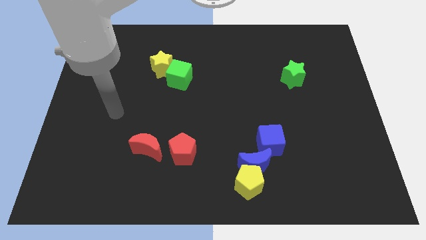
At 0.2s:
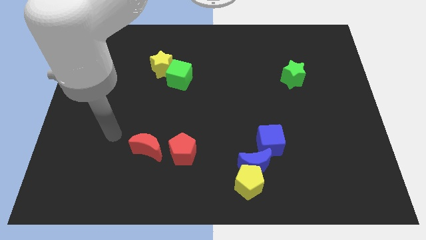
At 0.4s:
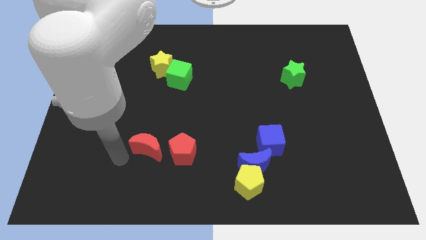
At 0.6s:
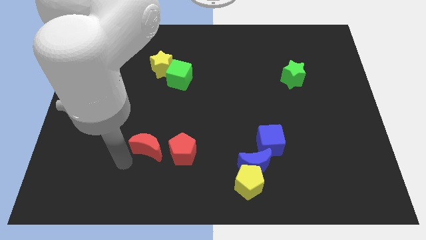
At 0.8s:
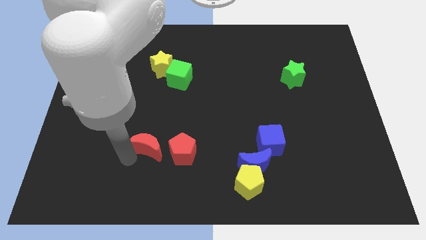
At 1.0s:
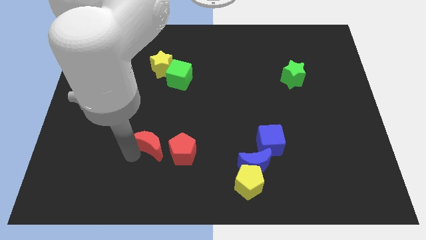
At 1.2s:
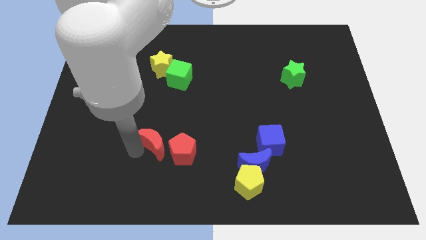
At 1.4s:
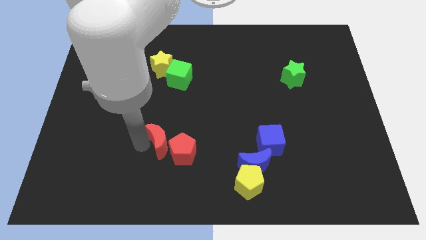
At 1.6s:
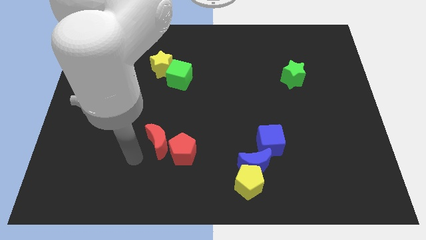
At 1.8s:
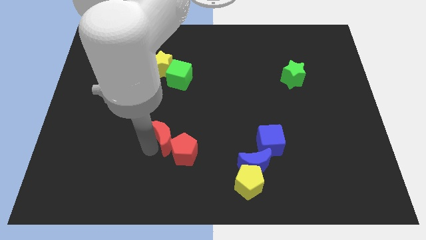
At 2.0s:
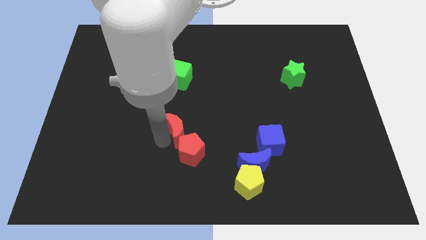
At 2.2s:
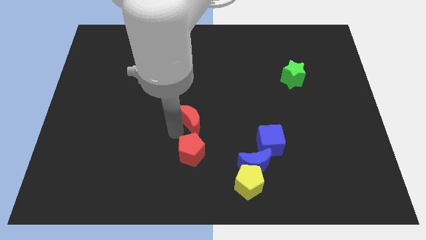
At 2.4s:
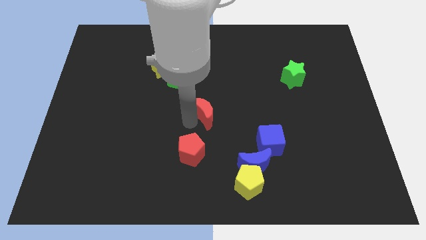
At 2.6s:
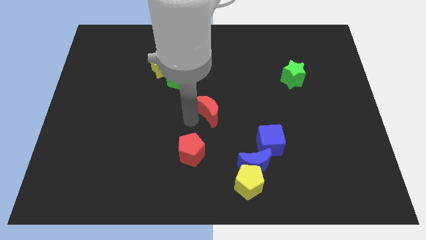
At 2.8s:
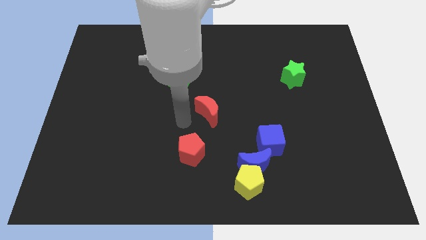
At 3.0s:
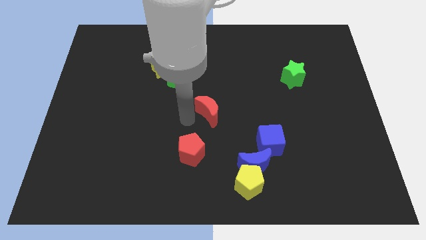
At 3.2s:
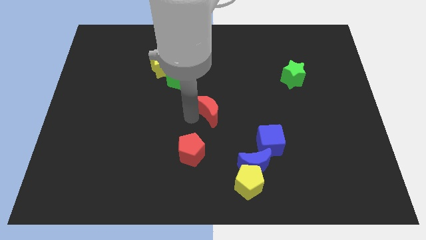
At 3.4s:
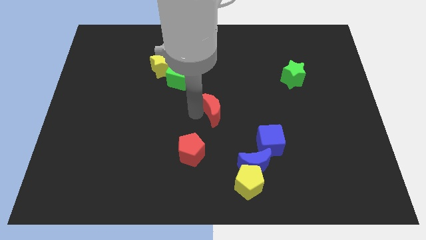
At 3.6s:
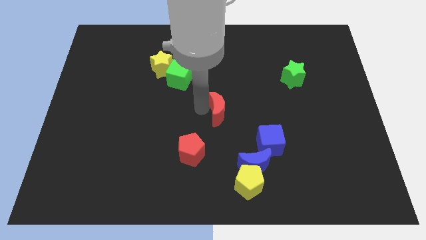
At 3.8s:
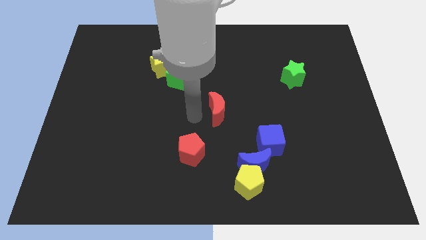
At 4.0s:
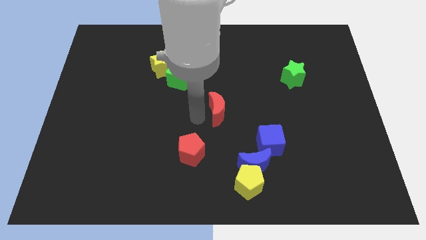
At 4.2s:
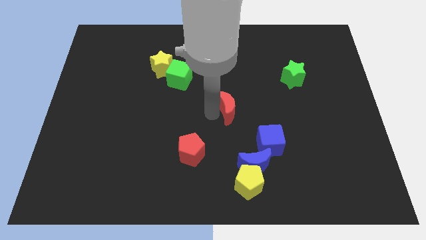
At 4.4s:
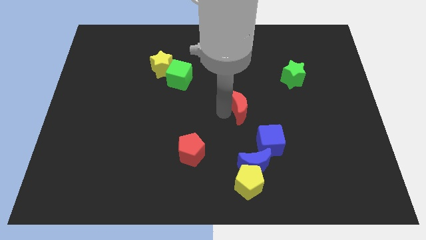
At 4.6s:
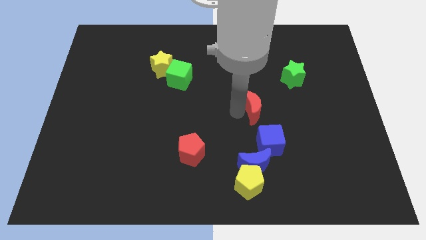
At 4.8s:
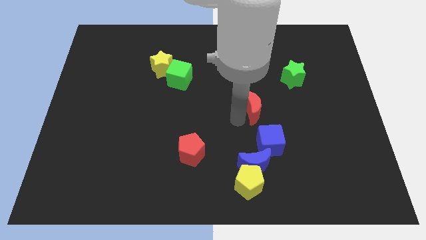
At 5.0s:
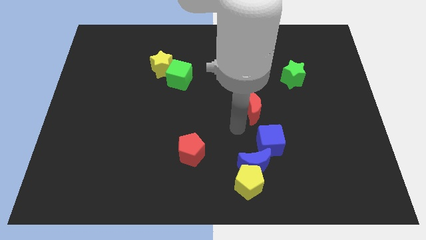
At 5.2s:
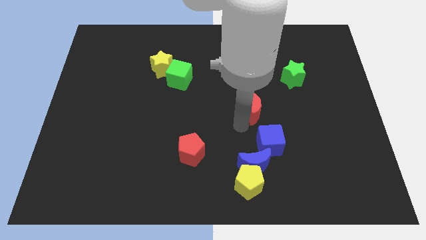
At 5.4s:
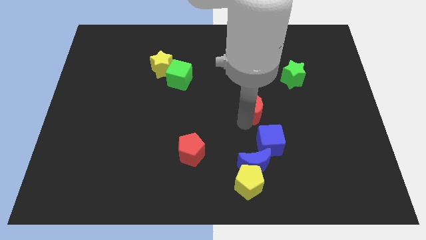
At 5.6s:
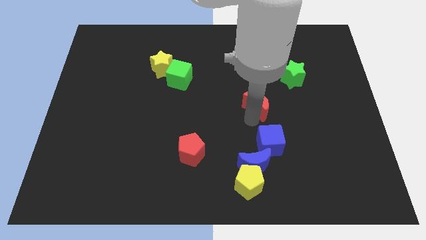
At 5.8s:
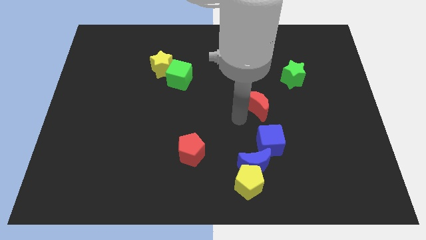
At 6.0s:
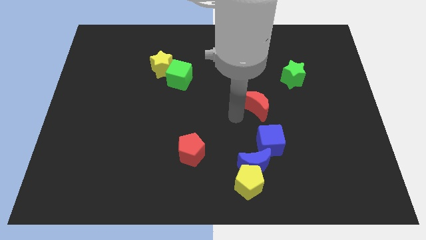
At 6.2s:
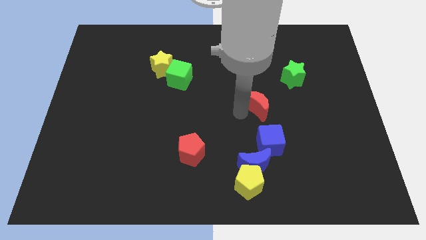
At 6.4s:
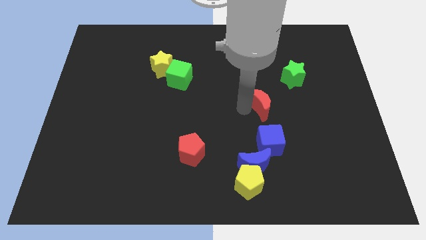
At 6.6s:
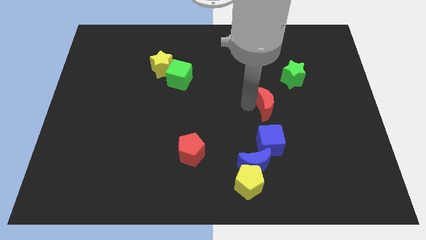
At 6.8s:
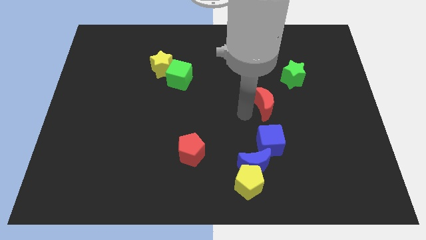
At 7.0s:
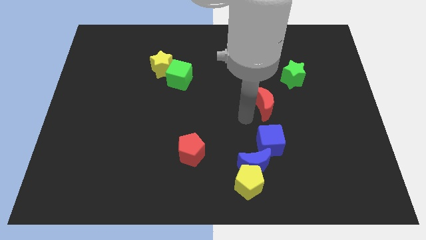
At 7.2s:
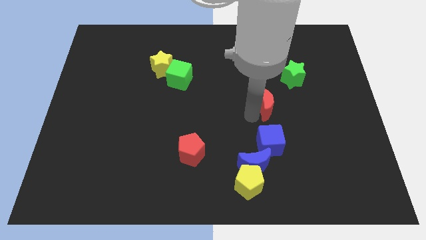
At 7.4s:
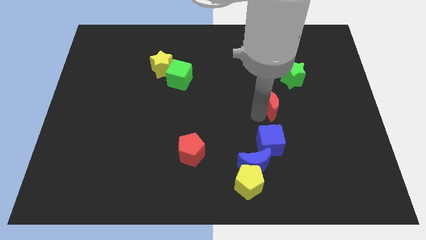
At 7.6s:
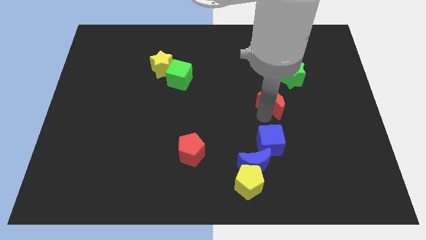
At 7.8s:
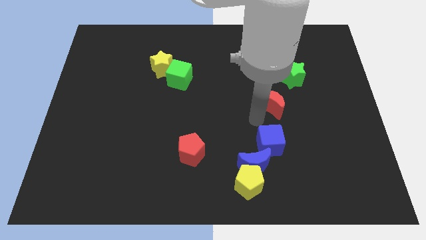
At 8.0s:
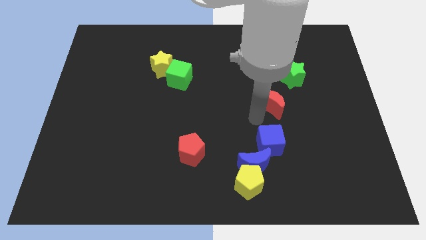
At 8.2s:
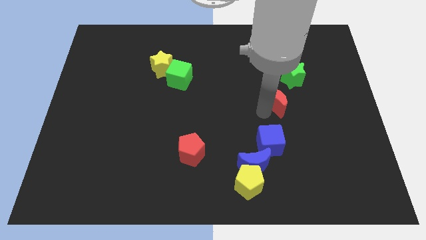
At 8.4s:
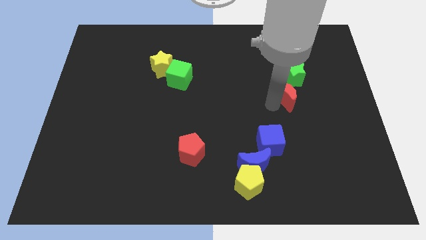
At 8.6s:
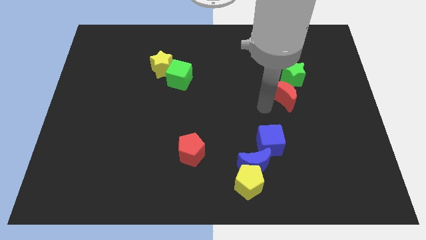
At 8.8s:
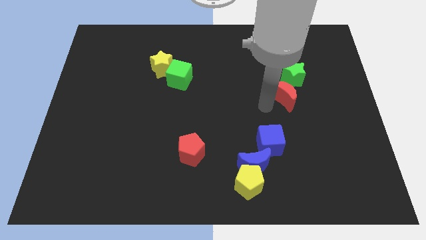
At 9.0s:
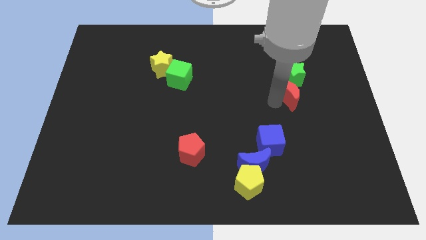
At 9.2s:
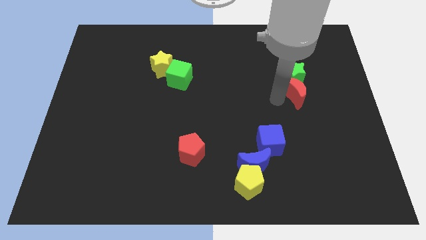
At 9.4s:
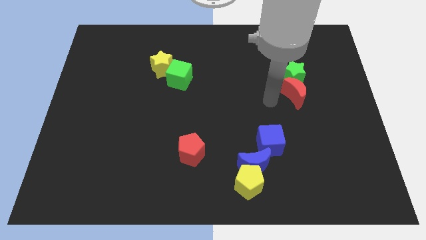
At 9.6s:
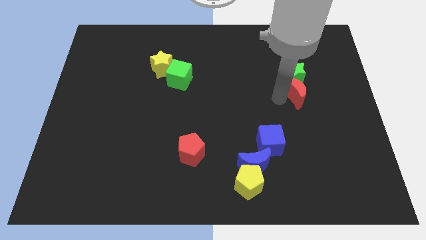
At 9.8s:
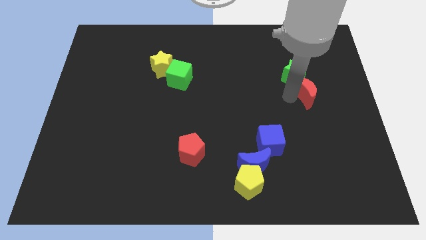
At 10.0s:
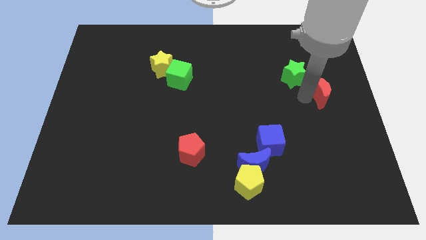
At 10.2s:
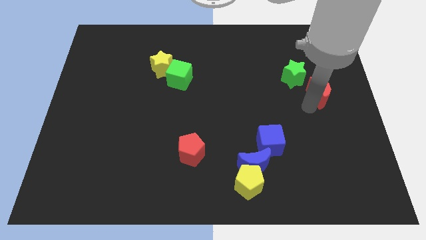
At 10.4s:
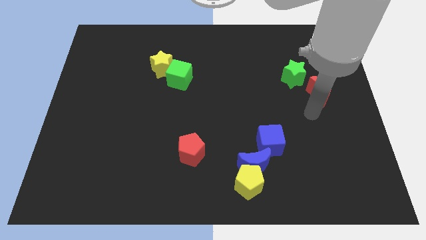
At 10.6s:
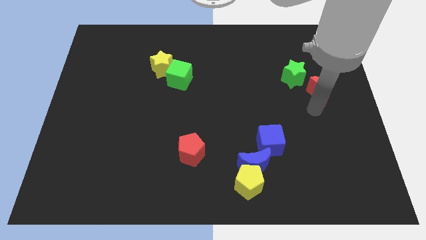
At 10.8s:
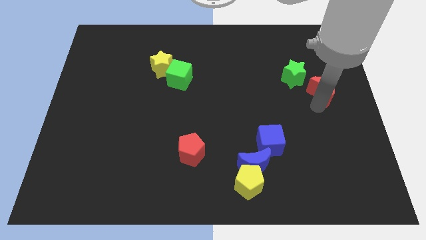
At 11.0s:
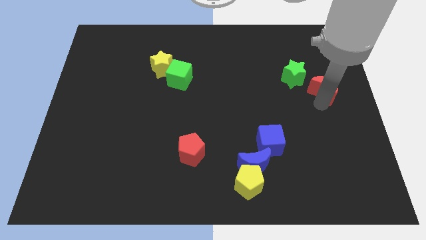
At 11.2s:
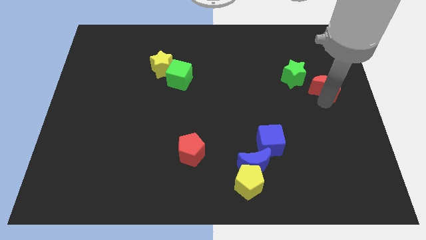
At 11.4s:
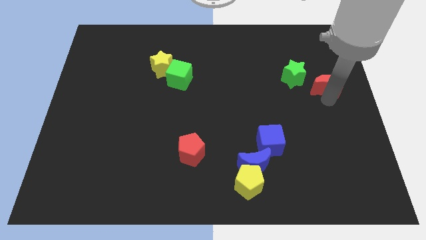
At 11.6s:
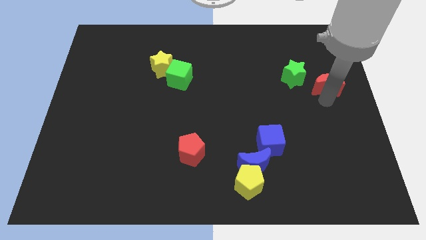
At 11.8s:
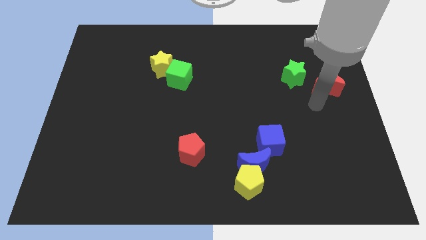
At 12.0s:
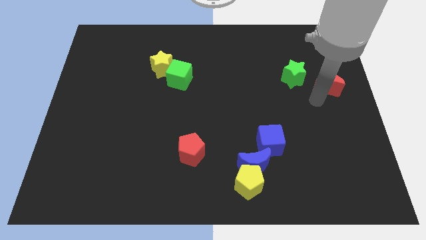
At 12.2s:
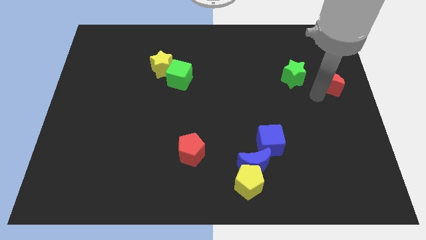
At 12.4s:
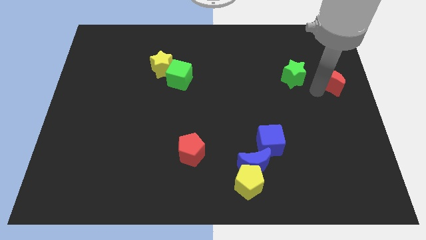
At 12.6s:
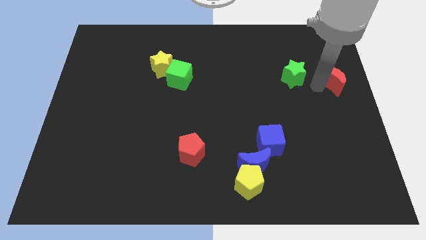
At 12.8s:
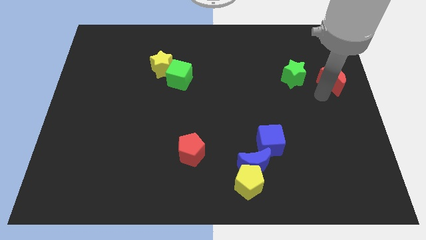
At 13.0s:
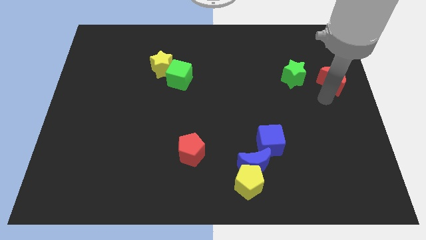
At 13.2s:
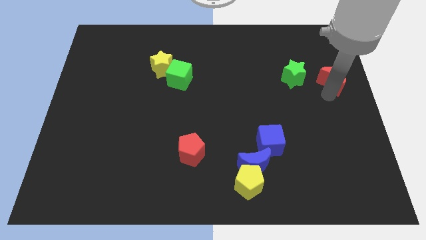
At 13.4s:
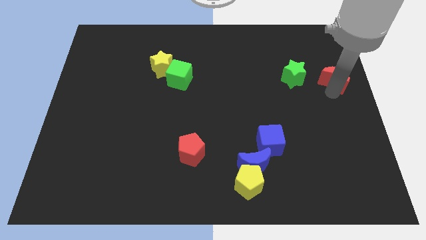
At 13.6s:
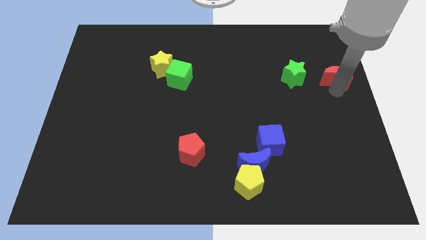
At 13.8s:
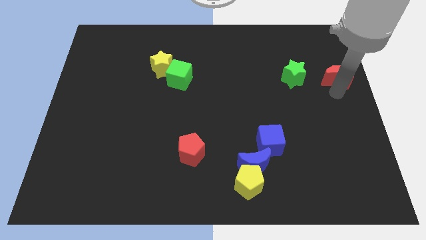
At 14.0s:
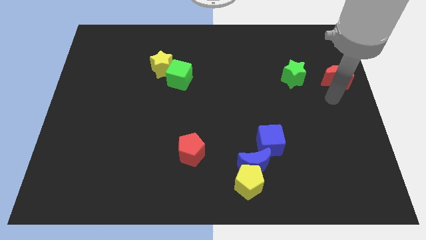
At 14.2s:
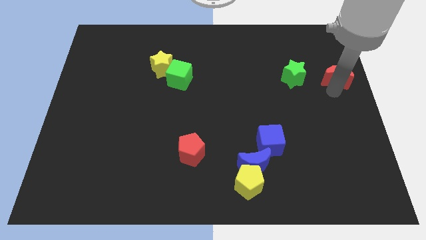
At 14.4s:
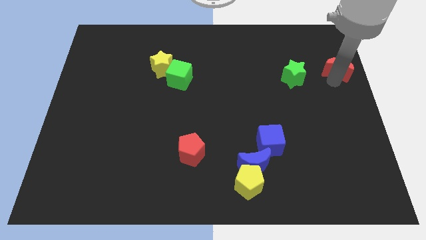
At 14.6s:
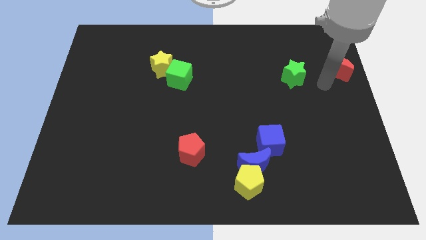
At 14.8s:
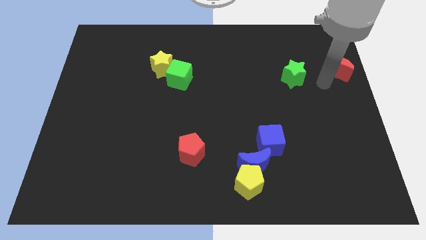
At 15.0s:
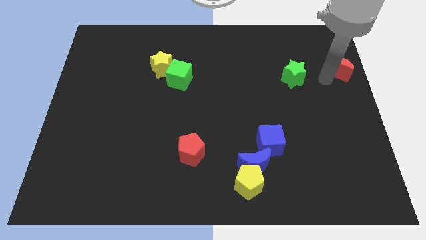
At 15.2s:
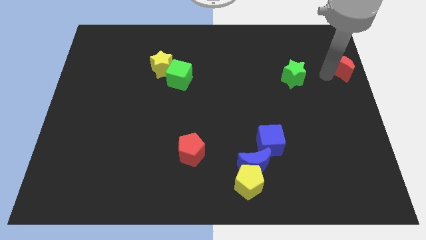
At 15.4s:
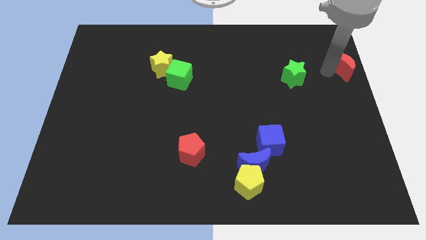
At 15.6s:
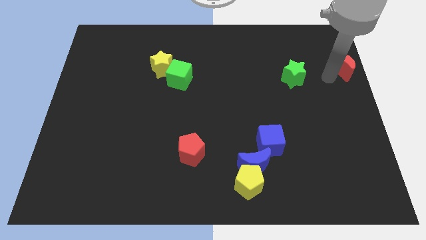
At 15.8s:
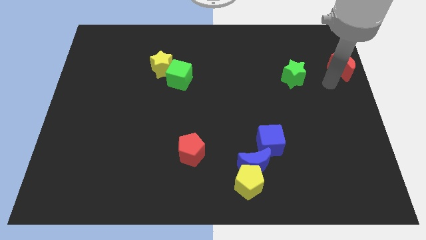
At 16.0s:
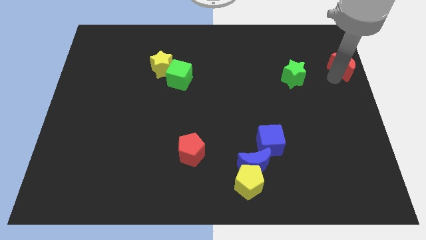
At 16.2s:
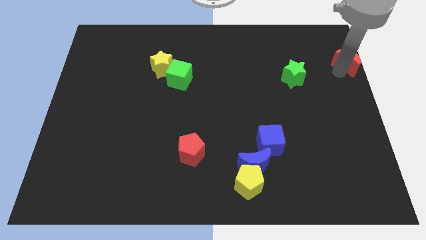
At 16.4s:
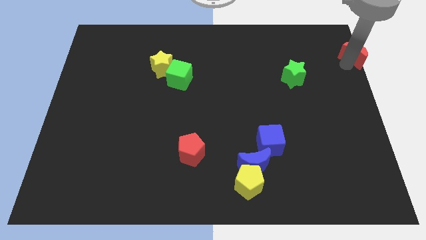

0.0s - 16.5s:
move the red moon to the top right of the board
